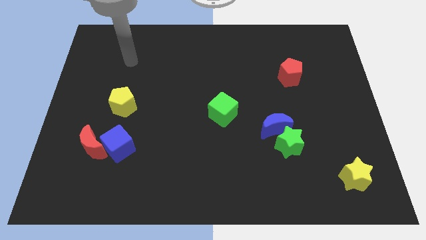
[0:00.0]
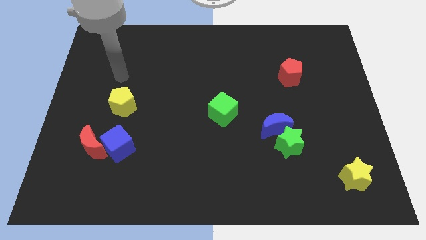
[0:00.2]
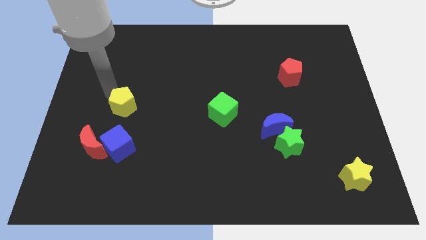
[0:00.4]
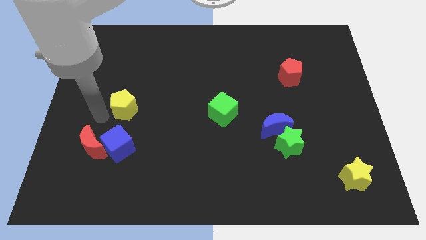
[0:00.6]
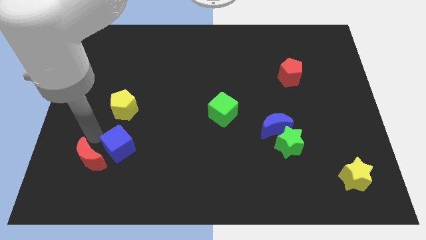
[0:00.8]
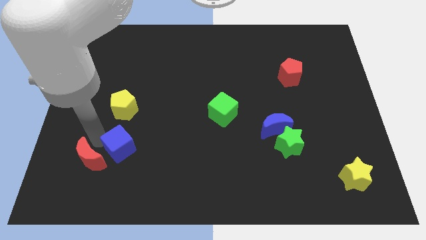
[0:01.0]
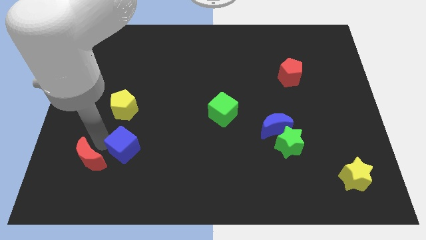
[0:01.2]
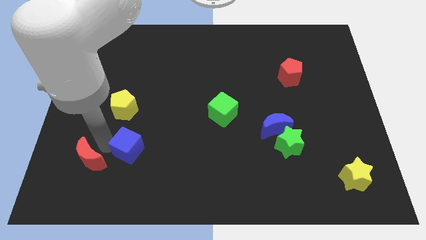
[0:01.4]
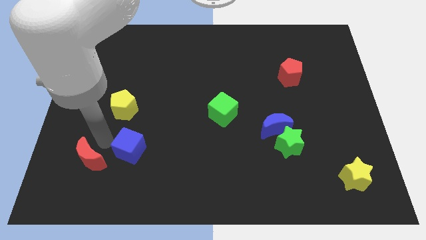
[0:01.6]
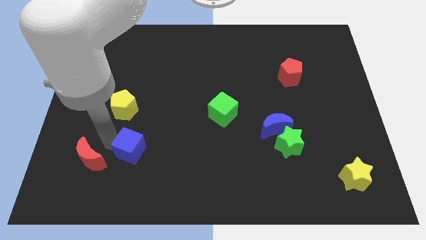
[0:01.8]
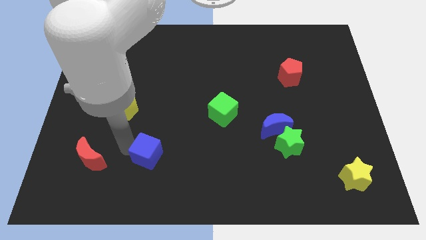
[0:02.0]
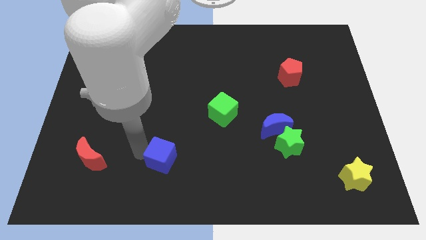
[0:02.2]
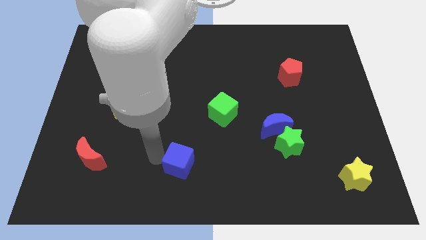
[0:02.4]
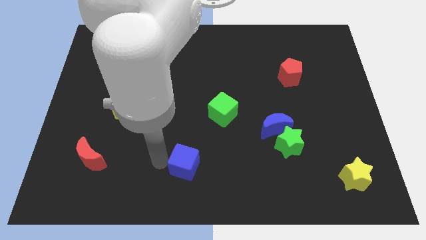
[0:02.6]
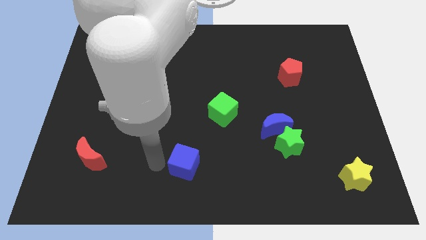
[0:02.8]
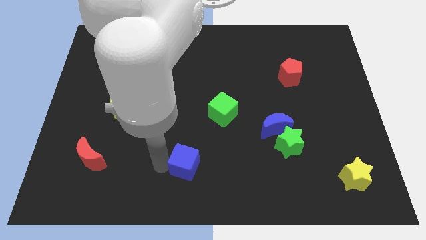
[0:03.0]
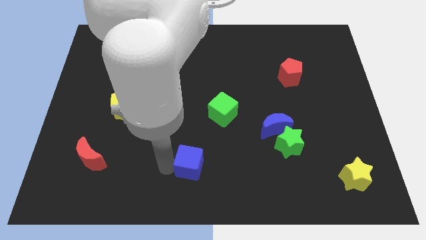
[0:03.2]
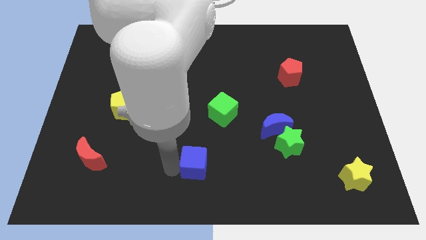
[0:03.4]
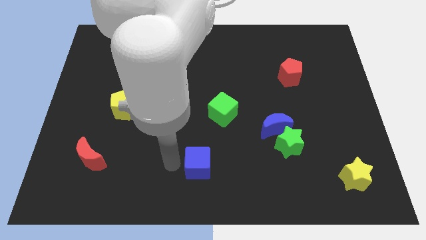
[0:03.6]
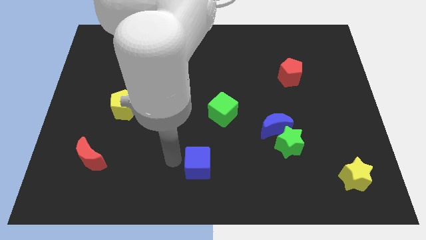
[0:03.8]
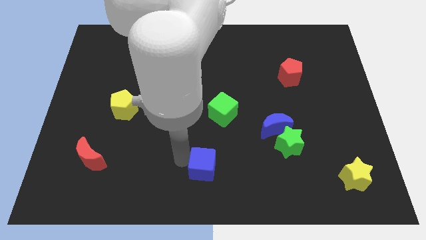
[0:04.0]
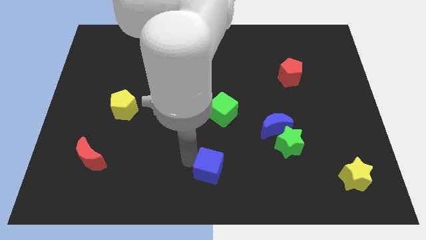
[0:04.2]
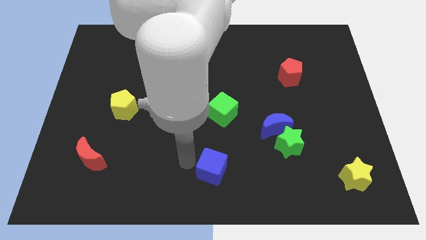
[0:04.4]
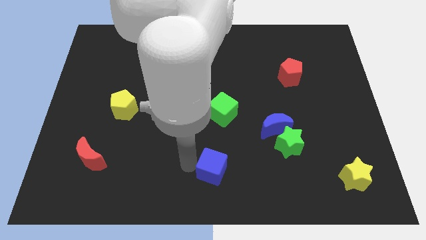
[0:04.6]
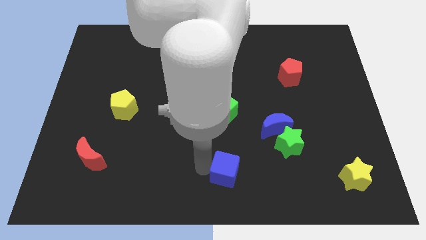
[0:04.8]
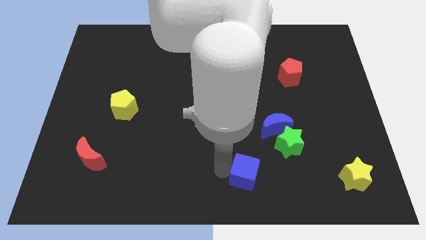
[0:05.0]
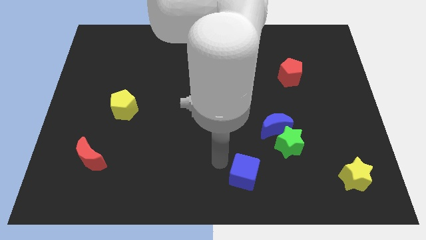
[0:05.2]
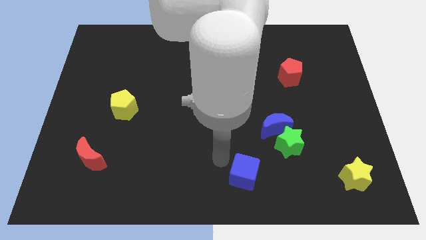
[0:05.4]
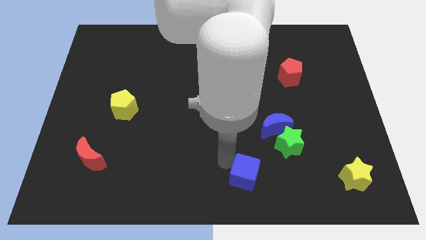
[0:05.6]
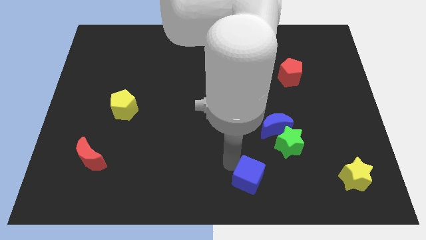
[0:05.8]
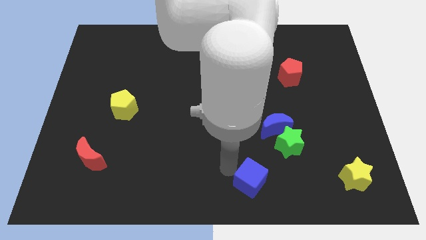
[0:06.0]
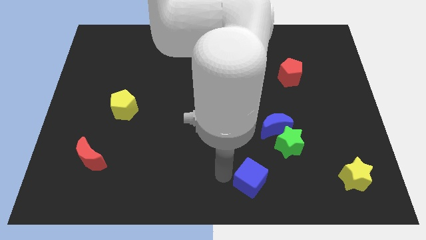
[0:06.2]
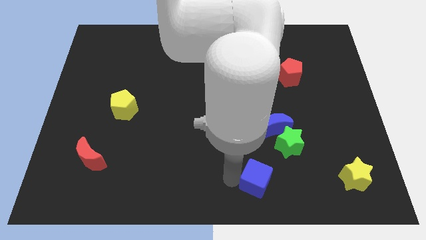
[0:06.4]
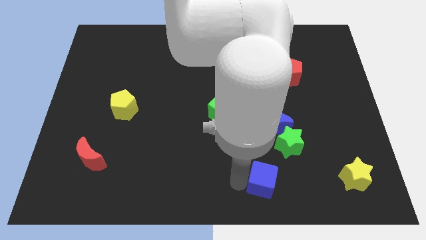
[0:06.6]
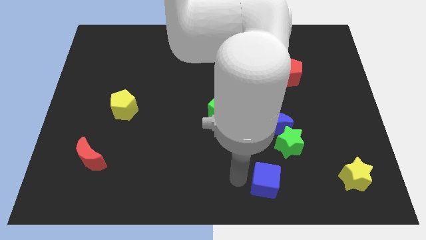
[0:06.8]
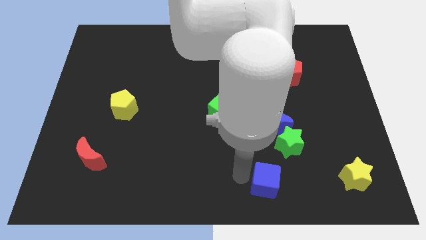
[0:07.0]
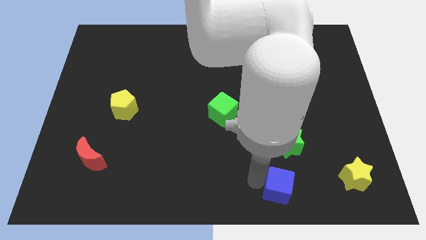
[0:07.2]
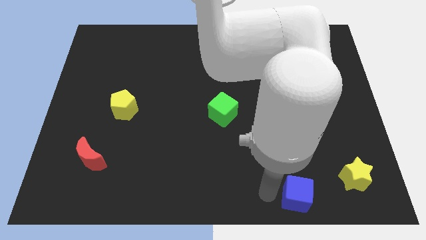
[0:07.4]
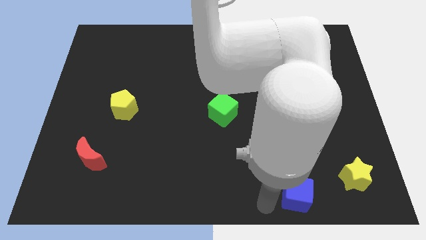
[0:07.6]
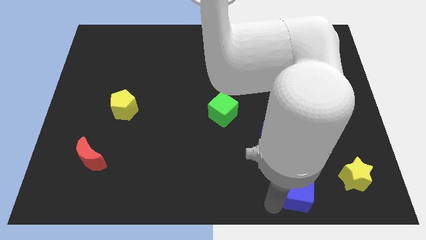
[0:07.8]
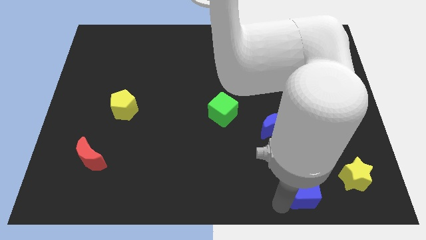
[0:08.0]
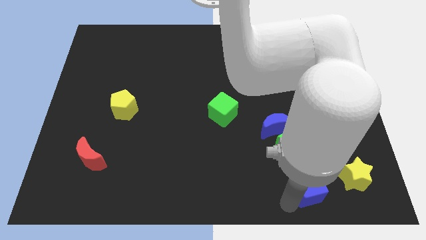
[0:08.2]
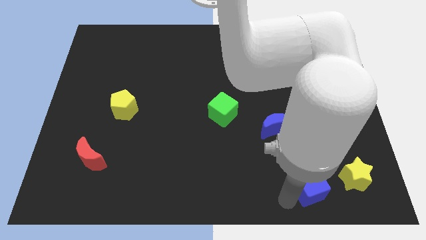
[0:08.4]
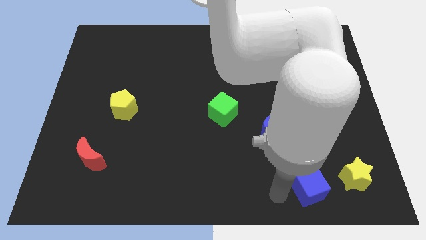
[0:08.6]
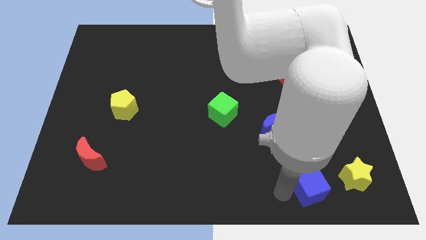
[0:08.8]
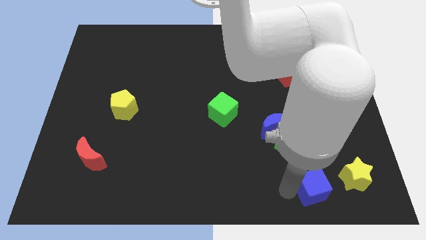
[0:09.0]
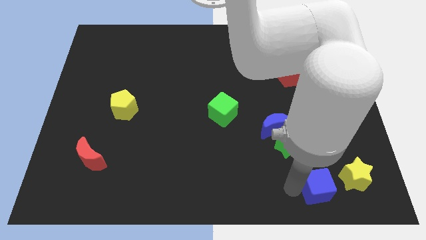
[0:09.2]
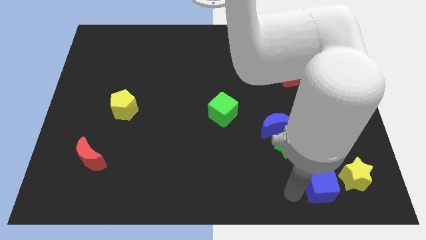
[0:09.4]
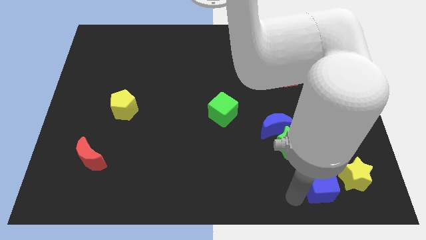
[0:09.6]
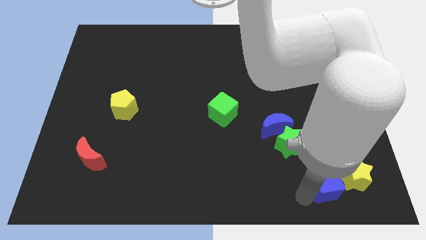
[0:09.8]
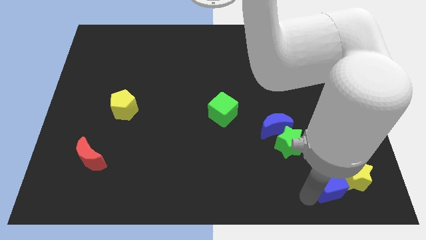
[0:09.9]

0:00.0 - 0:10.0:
put the blue cube towards the yellow star

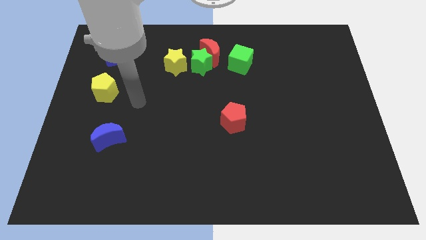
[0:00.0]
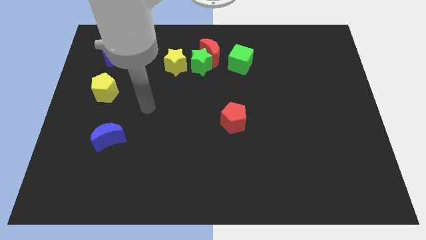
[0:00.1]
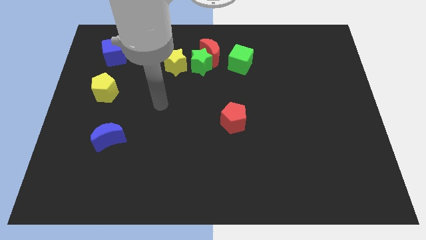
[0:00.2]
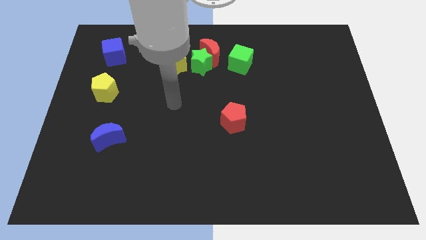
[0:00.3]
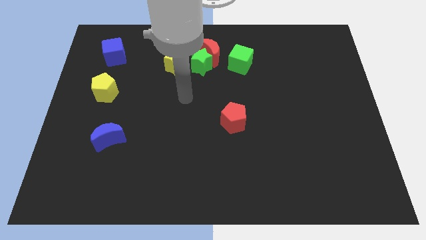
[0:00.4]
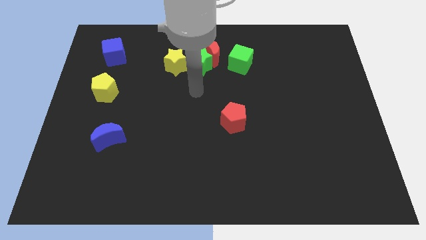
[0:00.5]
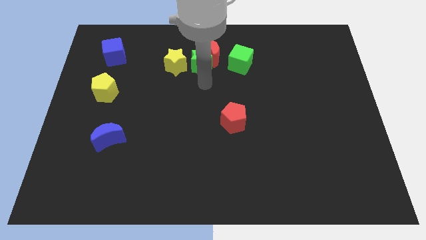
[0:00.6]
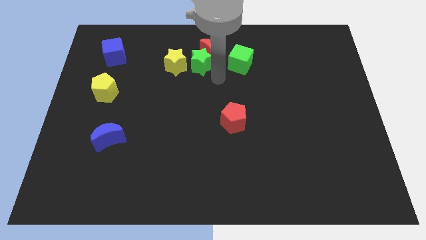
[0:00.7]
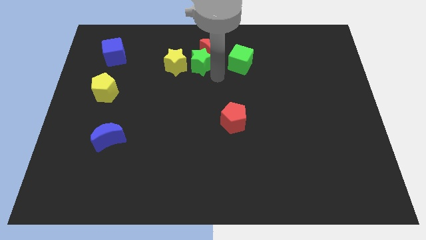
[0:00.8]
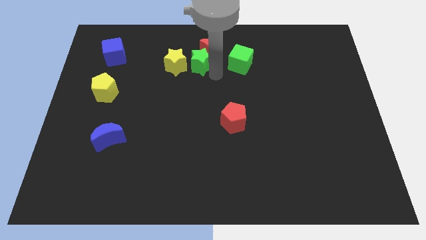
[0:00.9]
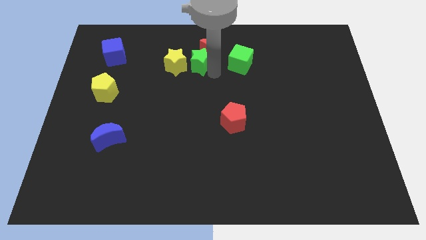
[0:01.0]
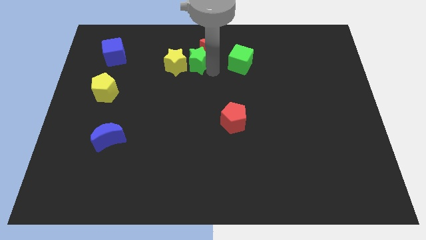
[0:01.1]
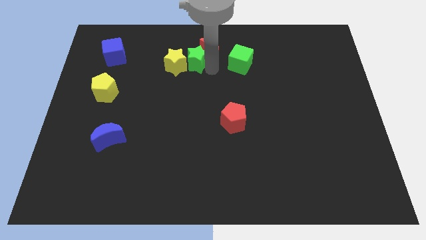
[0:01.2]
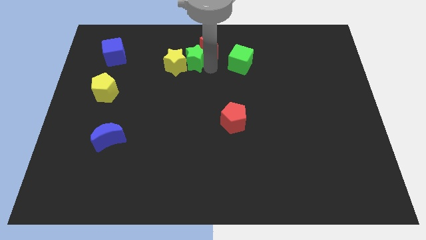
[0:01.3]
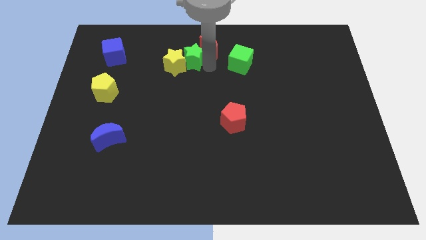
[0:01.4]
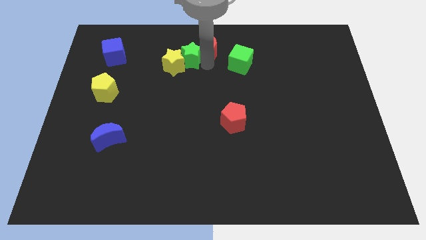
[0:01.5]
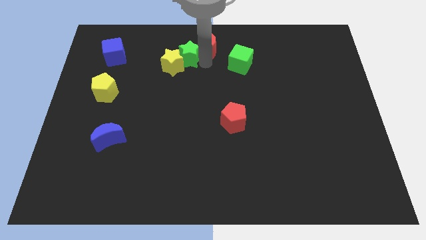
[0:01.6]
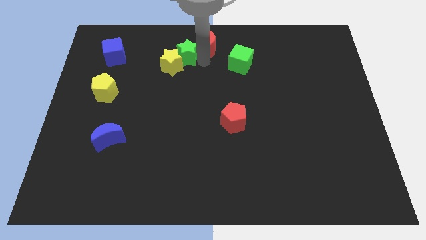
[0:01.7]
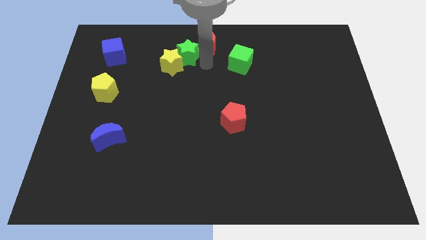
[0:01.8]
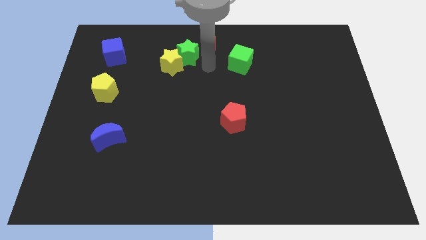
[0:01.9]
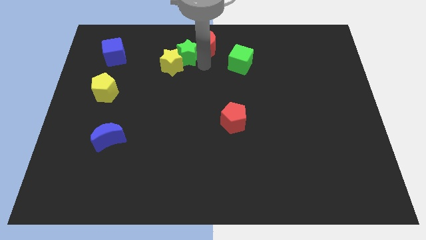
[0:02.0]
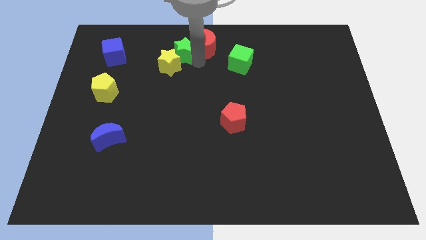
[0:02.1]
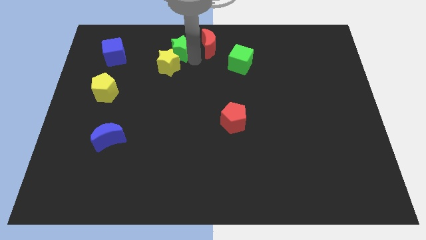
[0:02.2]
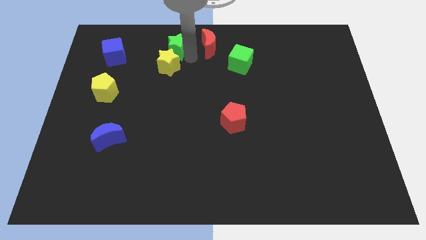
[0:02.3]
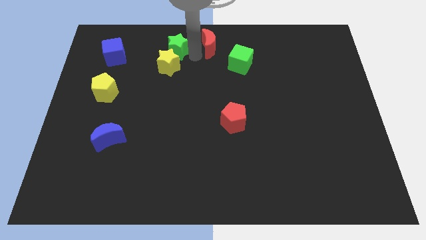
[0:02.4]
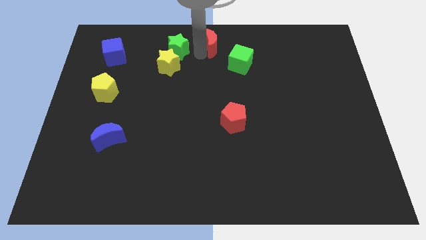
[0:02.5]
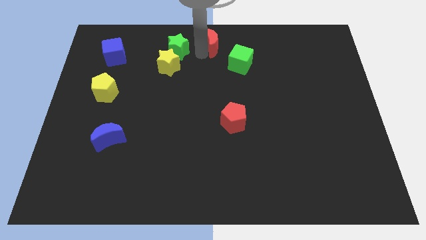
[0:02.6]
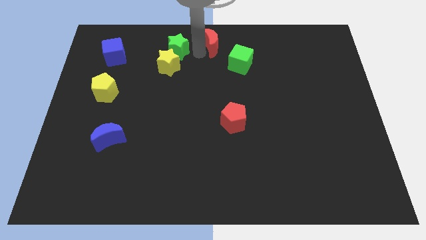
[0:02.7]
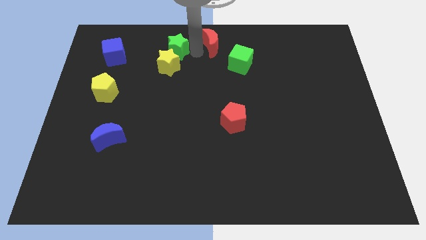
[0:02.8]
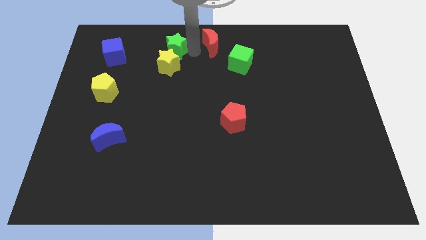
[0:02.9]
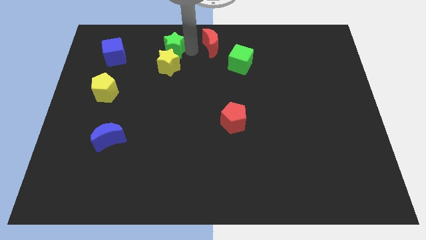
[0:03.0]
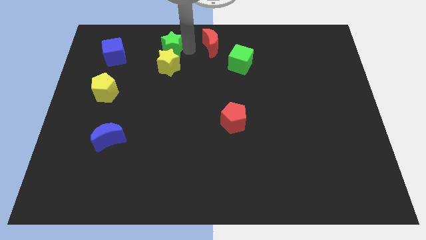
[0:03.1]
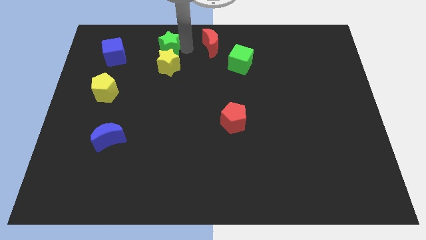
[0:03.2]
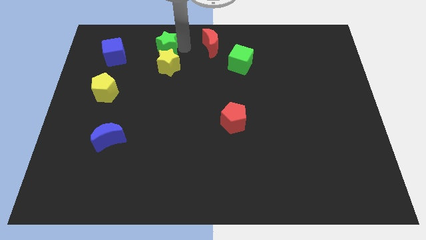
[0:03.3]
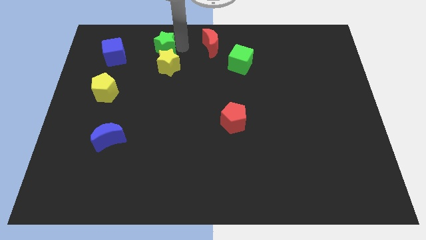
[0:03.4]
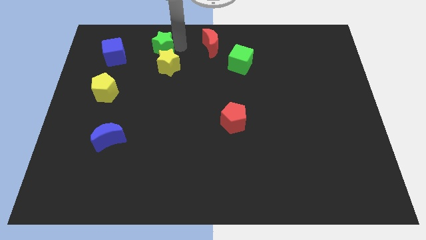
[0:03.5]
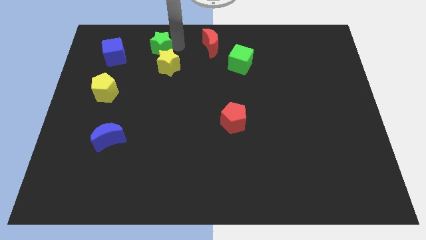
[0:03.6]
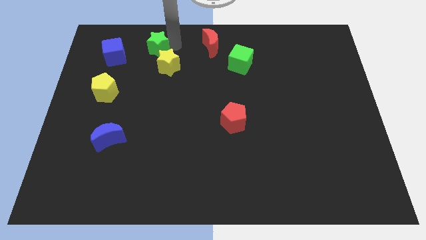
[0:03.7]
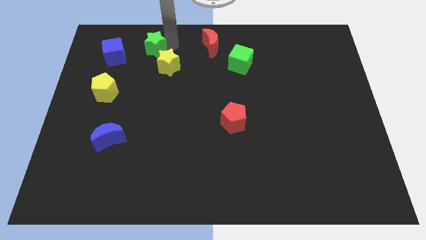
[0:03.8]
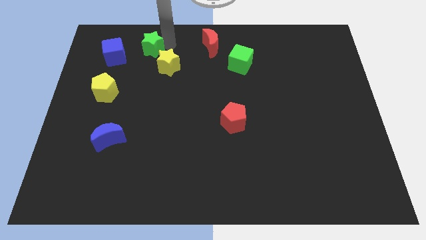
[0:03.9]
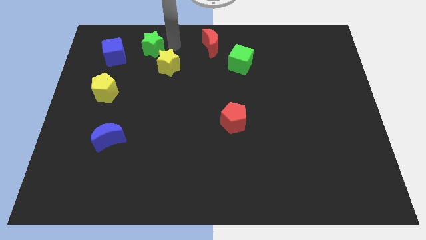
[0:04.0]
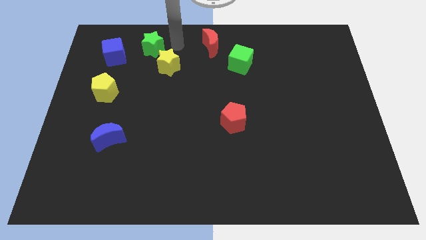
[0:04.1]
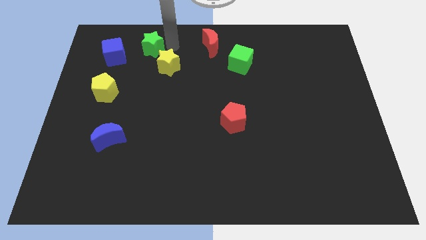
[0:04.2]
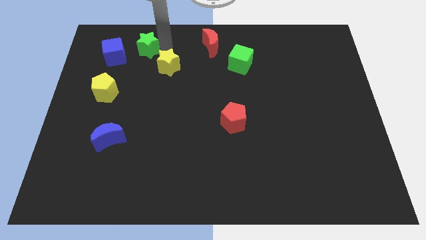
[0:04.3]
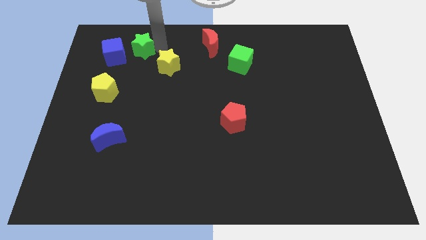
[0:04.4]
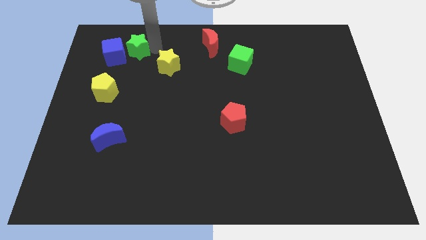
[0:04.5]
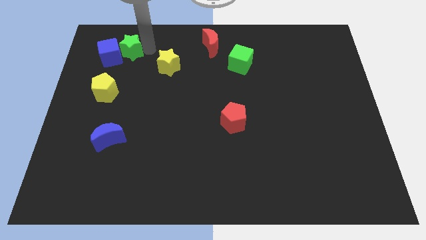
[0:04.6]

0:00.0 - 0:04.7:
put the green star close to the blue cube
